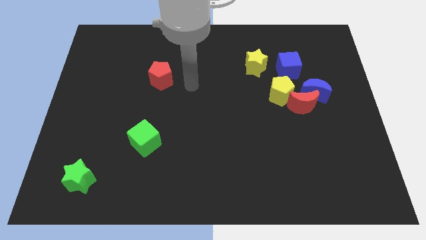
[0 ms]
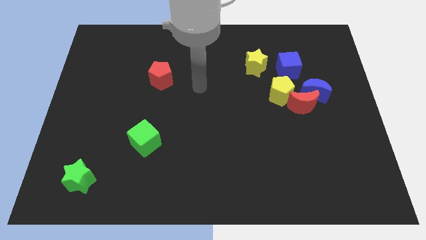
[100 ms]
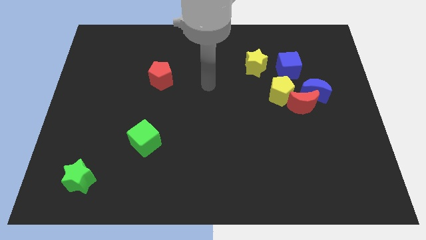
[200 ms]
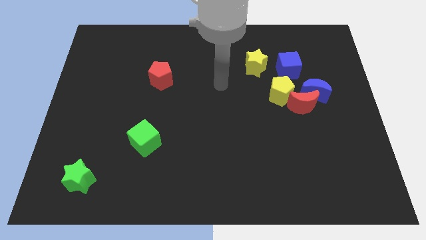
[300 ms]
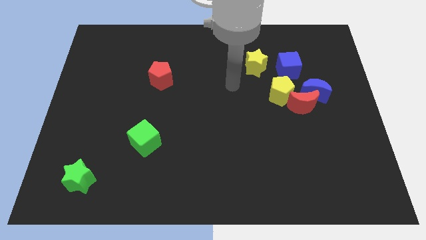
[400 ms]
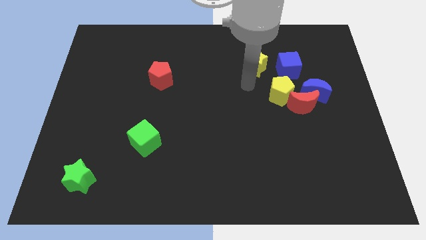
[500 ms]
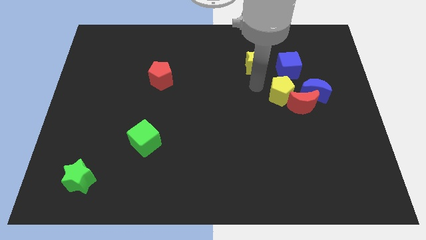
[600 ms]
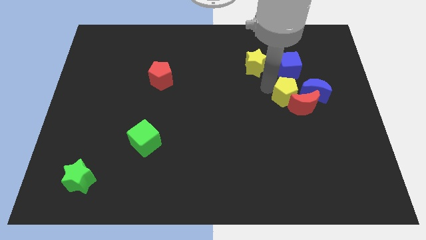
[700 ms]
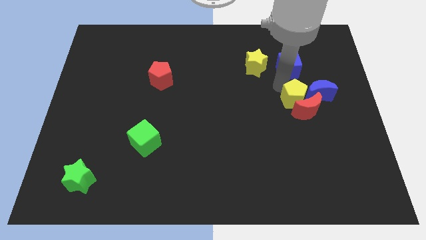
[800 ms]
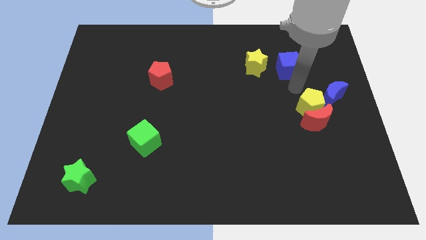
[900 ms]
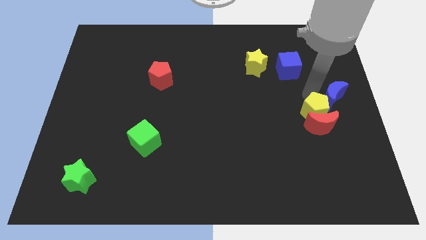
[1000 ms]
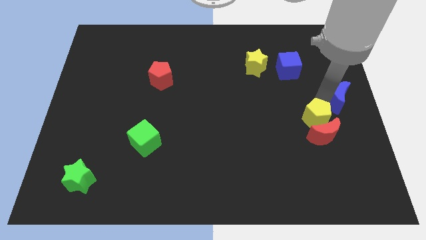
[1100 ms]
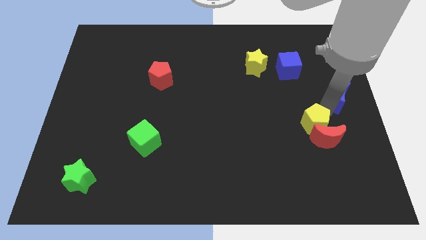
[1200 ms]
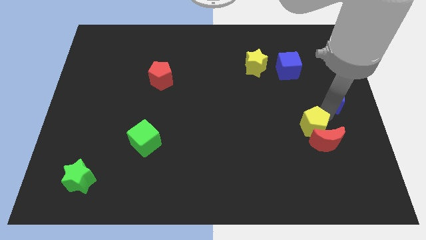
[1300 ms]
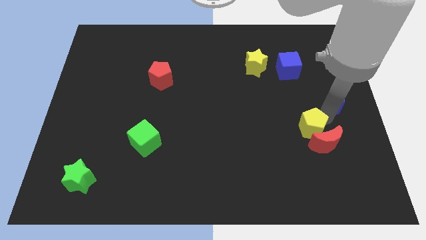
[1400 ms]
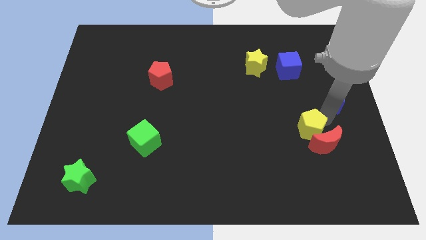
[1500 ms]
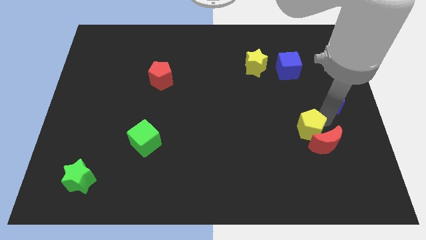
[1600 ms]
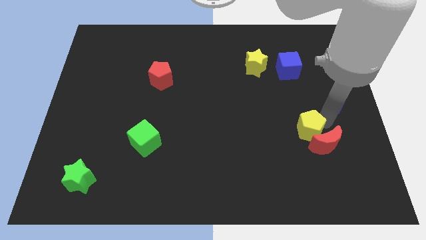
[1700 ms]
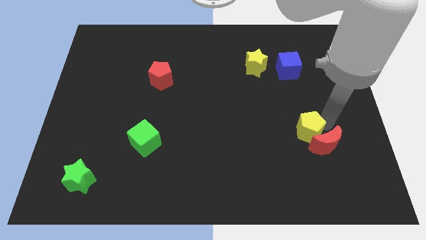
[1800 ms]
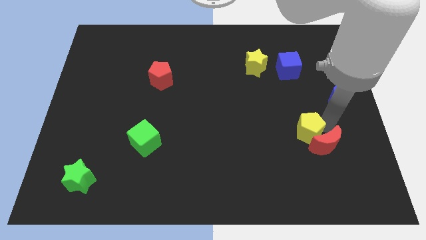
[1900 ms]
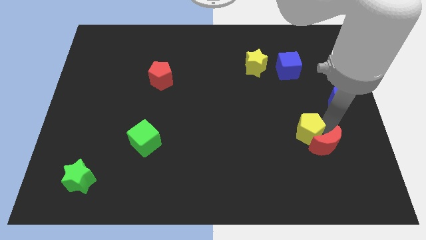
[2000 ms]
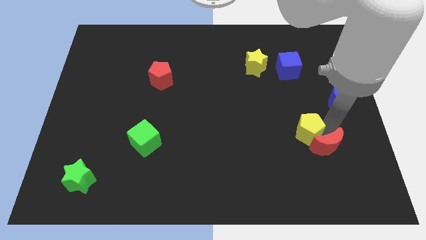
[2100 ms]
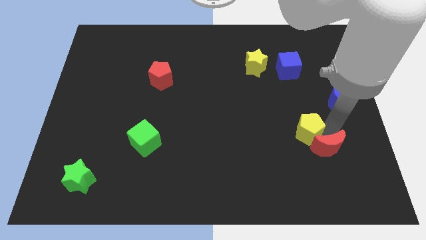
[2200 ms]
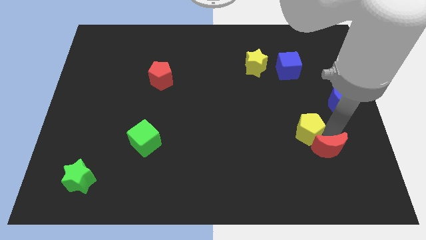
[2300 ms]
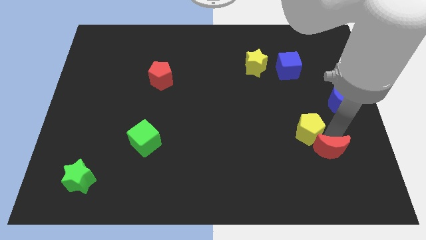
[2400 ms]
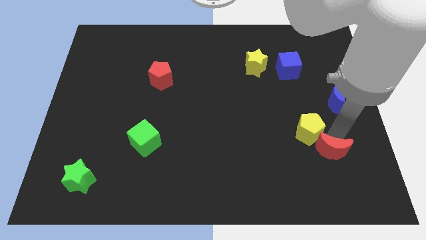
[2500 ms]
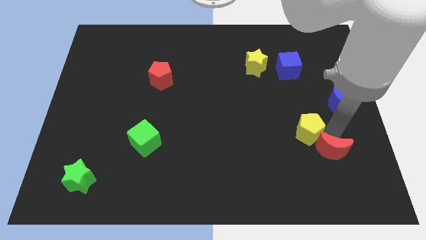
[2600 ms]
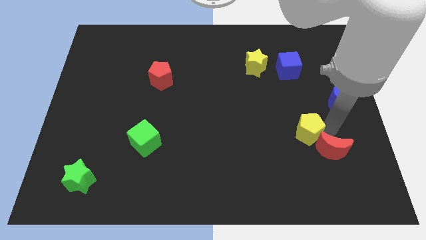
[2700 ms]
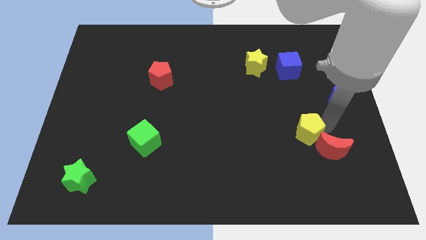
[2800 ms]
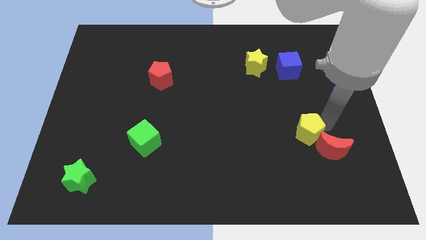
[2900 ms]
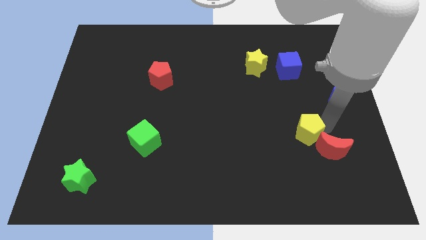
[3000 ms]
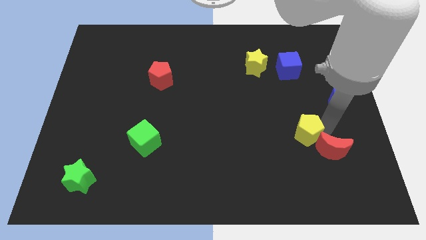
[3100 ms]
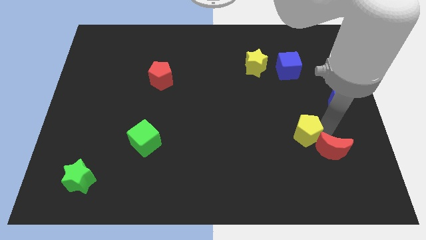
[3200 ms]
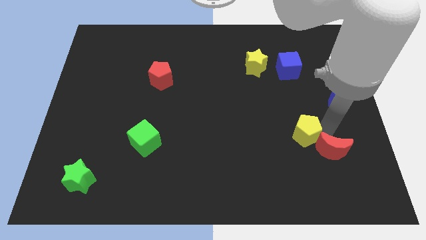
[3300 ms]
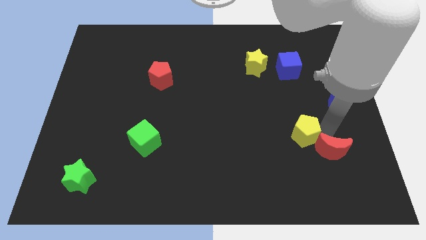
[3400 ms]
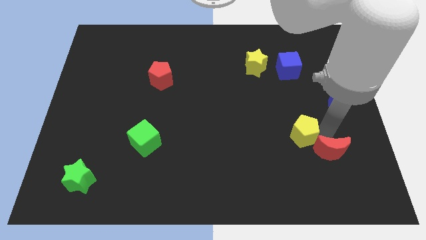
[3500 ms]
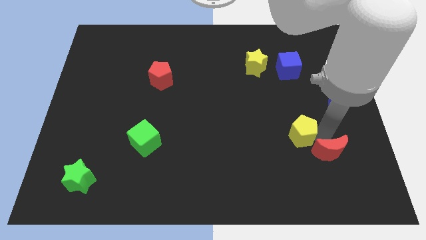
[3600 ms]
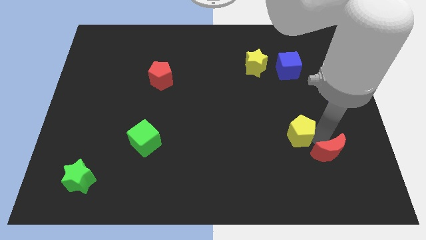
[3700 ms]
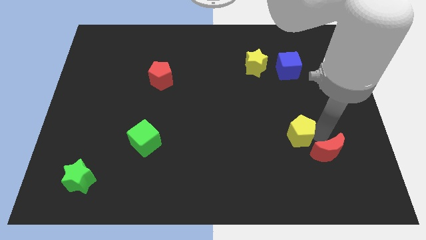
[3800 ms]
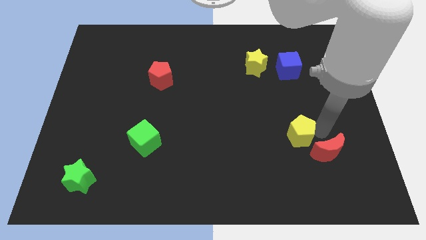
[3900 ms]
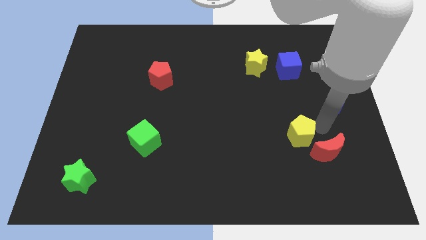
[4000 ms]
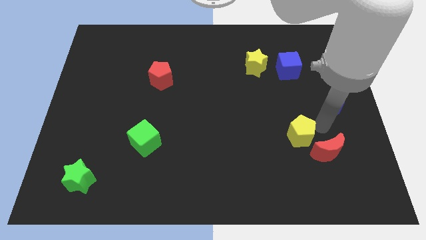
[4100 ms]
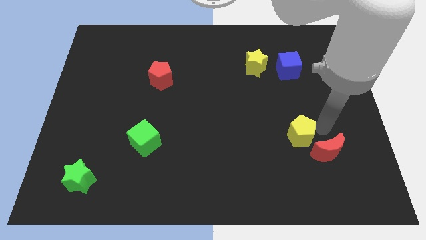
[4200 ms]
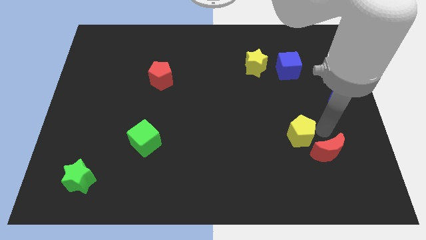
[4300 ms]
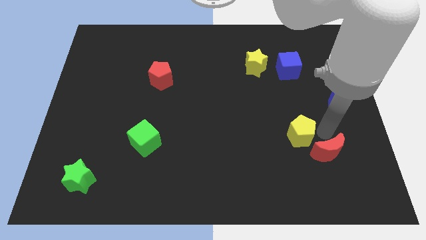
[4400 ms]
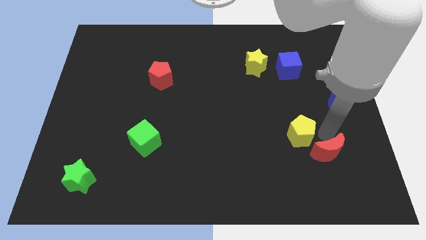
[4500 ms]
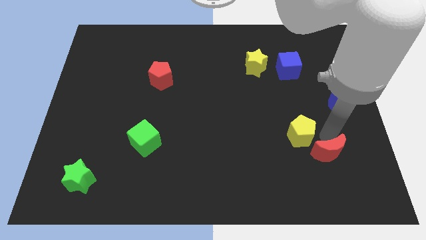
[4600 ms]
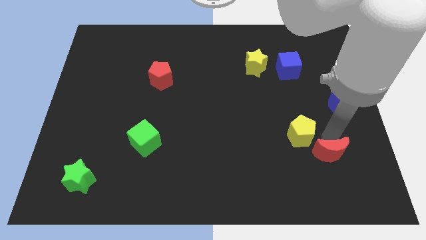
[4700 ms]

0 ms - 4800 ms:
pull the red moon apart from the blue moon and yellow pentagon

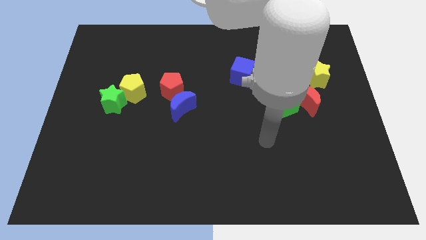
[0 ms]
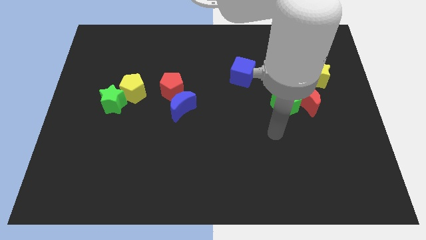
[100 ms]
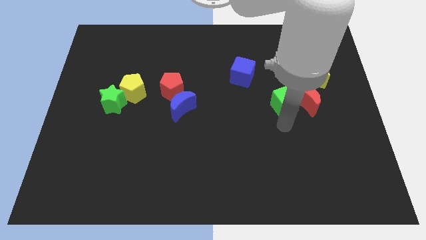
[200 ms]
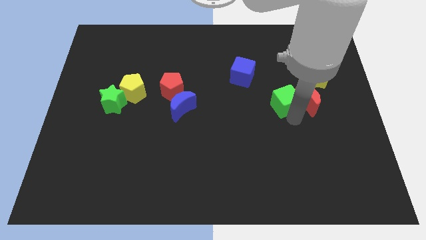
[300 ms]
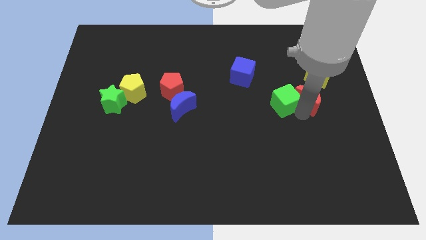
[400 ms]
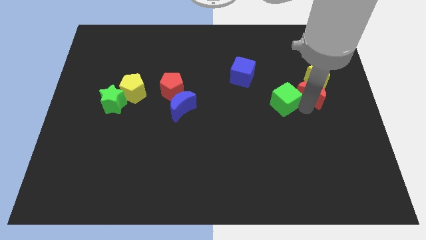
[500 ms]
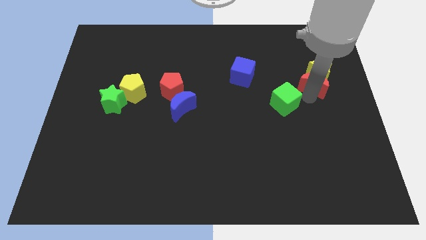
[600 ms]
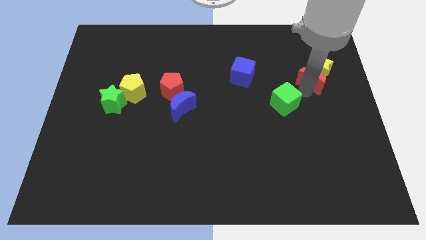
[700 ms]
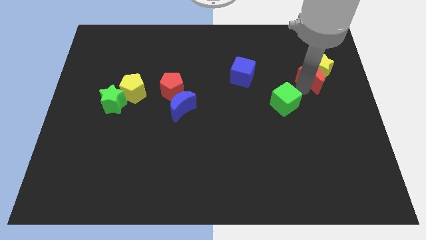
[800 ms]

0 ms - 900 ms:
pull the green cube apart from the red moon

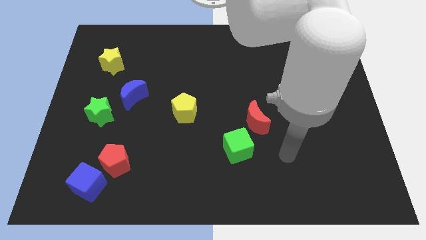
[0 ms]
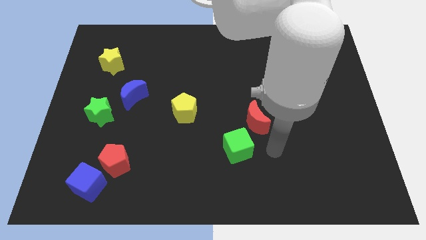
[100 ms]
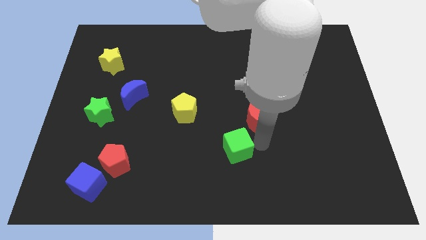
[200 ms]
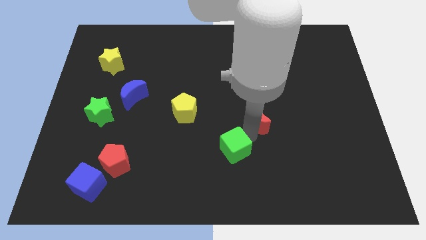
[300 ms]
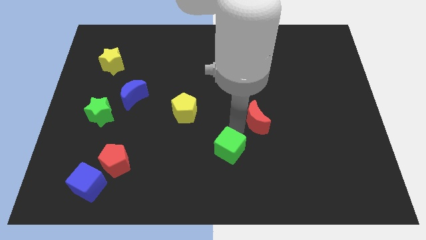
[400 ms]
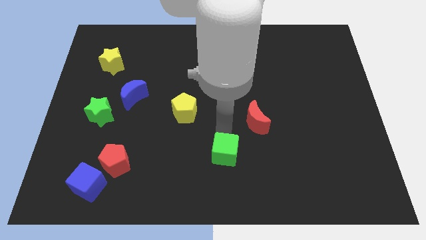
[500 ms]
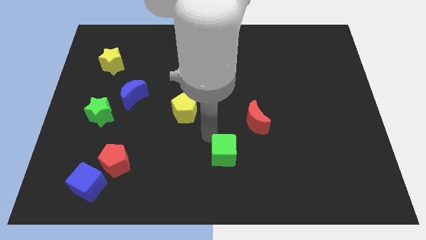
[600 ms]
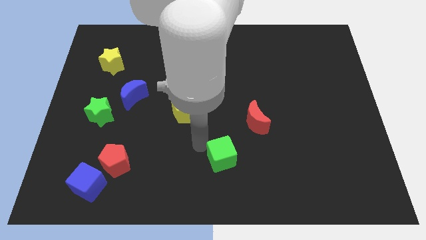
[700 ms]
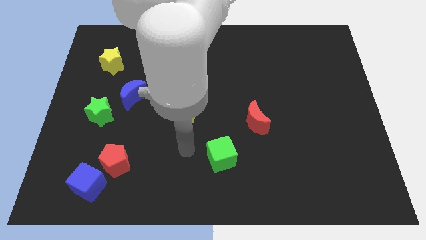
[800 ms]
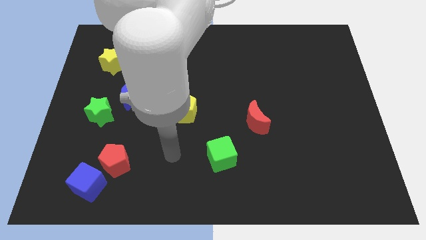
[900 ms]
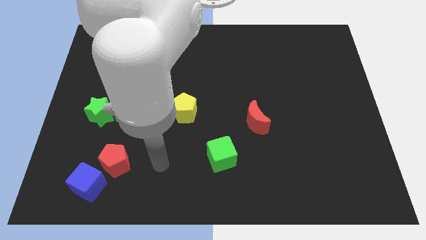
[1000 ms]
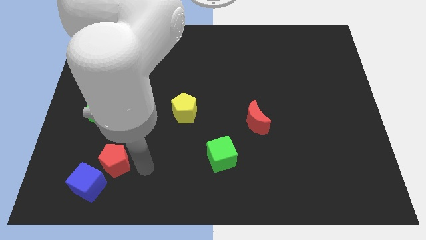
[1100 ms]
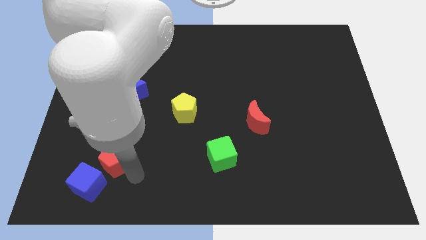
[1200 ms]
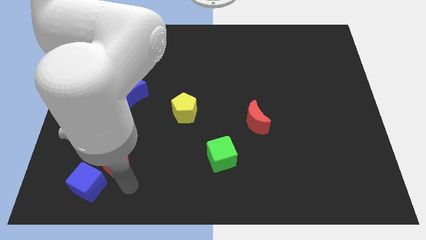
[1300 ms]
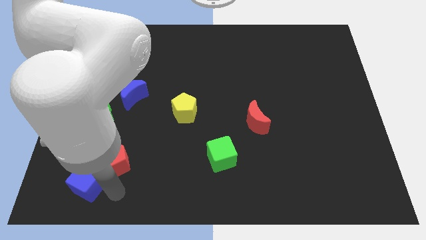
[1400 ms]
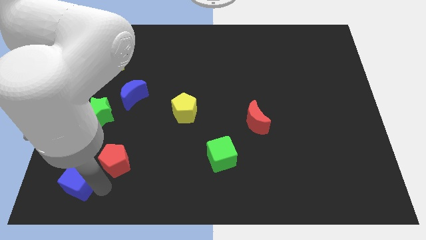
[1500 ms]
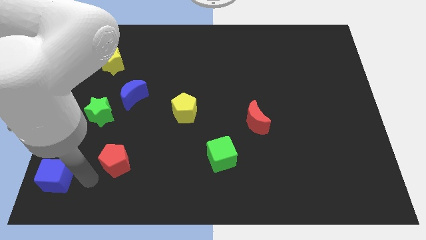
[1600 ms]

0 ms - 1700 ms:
pull the red pentagon apart from the blue cube

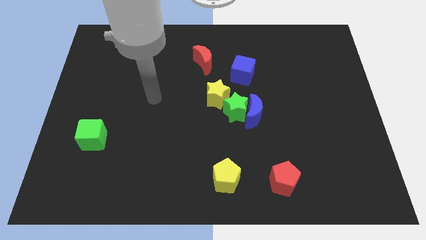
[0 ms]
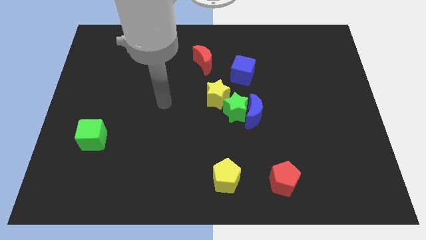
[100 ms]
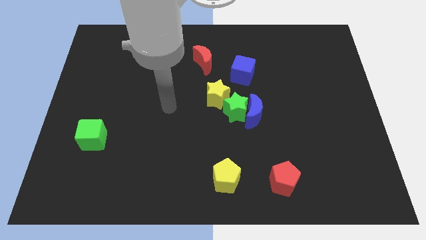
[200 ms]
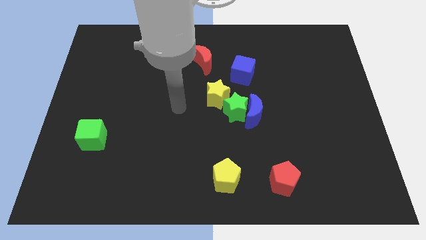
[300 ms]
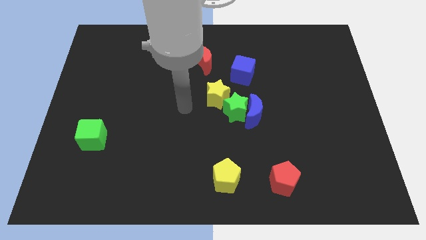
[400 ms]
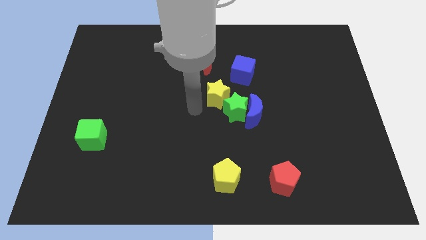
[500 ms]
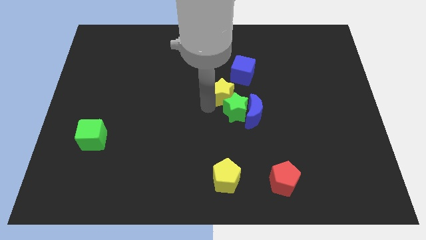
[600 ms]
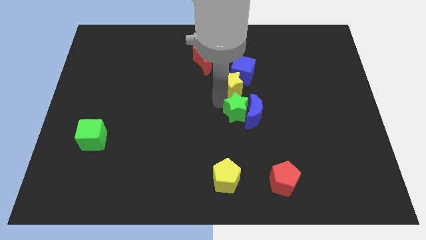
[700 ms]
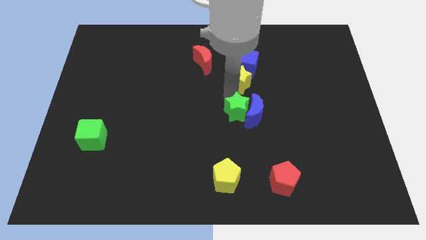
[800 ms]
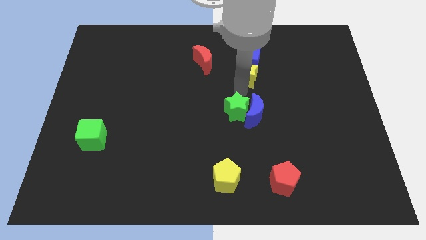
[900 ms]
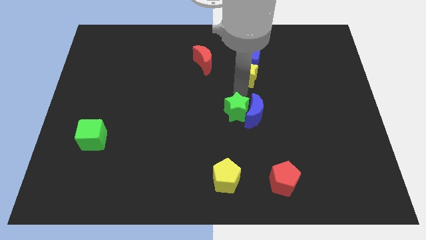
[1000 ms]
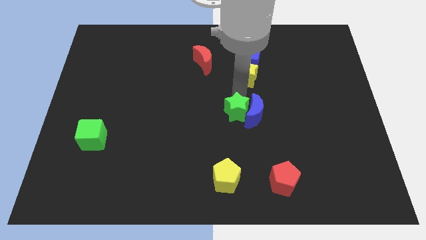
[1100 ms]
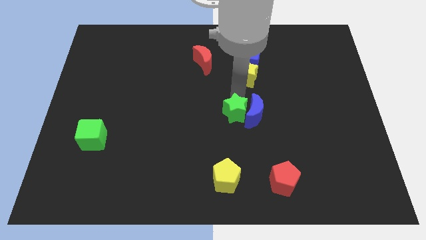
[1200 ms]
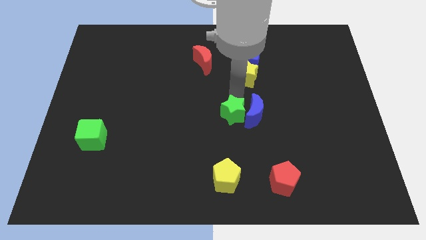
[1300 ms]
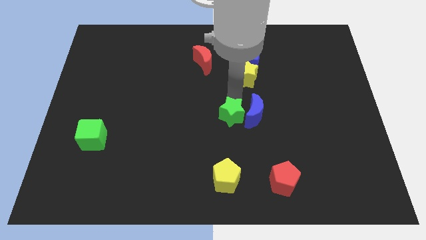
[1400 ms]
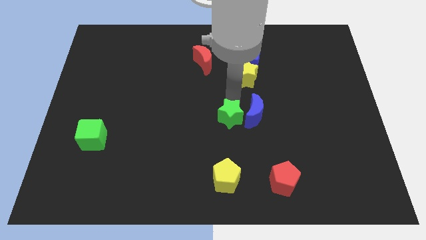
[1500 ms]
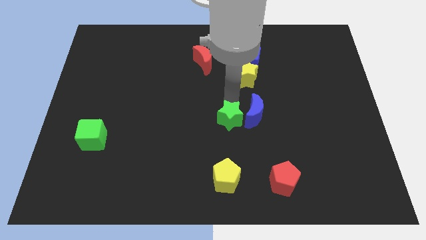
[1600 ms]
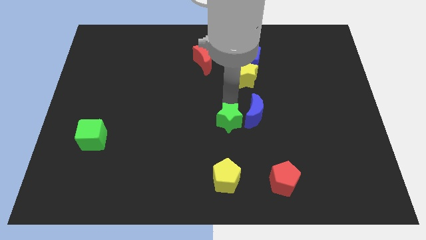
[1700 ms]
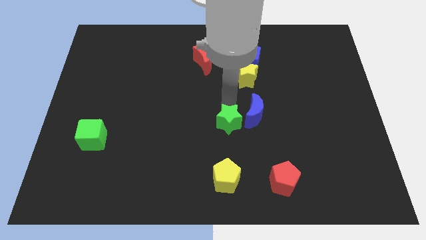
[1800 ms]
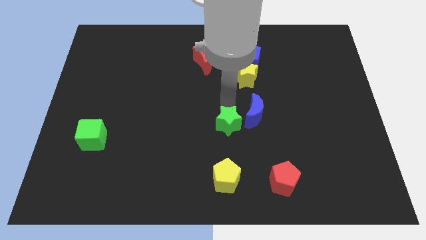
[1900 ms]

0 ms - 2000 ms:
pull the green star apart from the blue moon and yellow star
